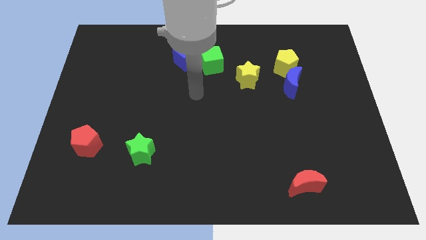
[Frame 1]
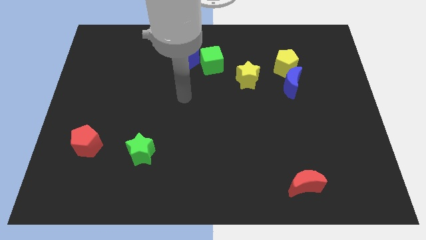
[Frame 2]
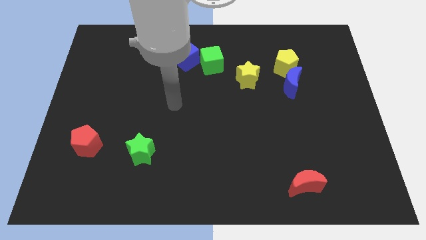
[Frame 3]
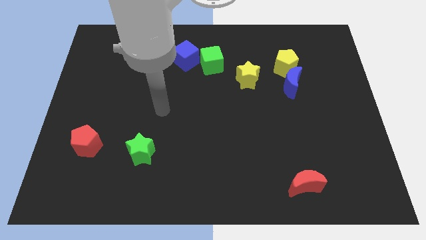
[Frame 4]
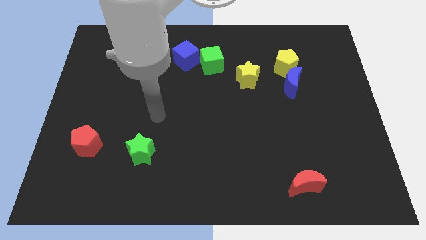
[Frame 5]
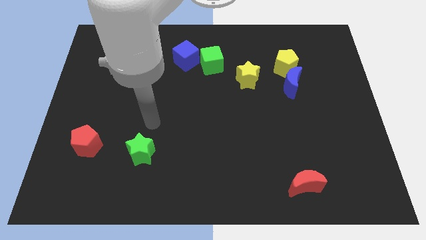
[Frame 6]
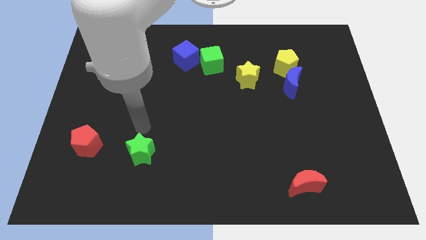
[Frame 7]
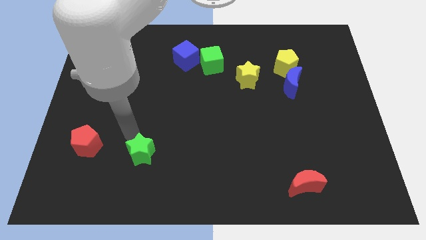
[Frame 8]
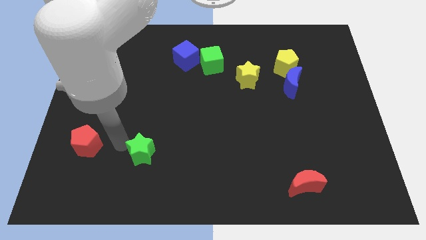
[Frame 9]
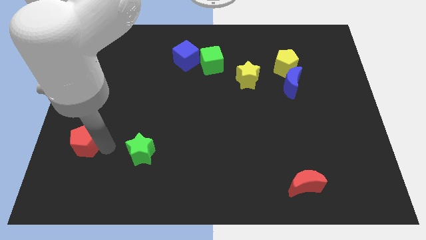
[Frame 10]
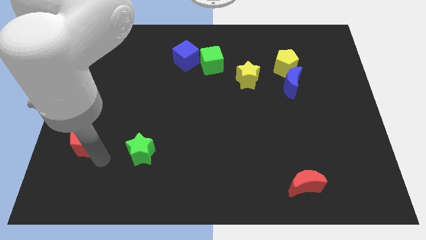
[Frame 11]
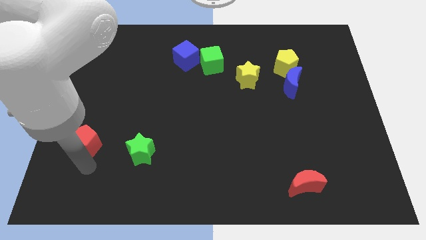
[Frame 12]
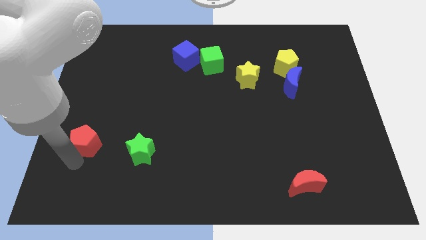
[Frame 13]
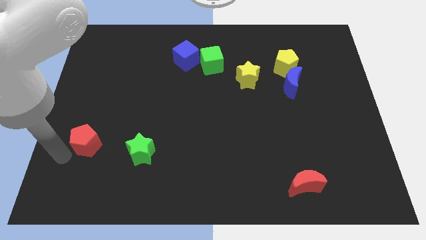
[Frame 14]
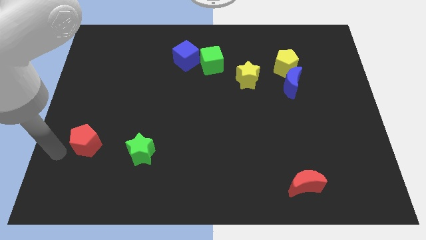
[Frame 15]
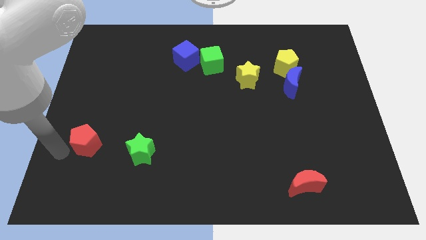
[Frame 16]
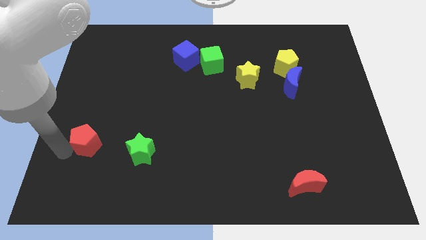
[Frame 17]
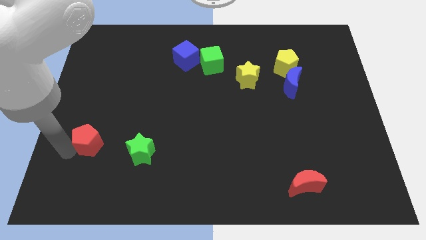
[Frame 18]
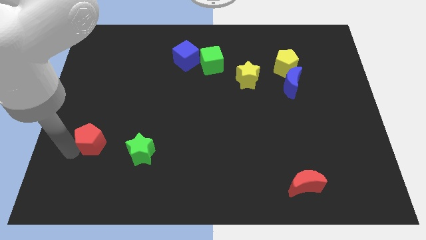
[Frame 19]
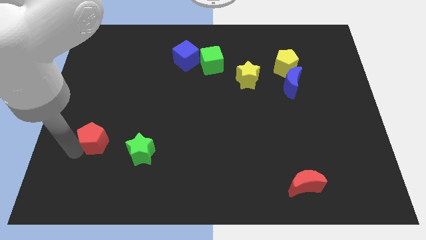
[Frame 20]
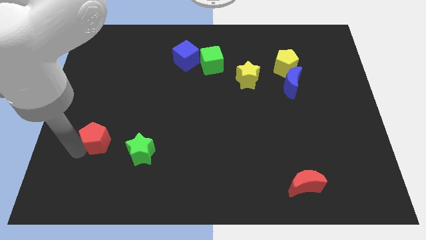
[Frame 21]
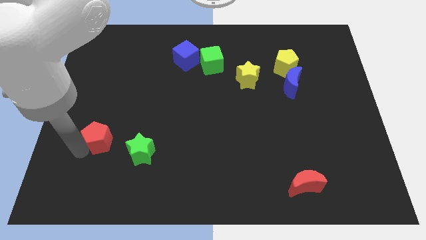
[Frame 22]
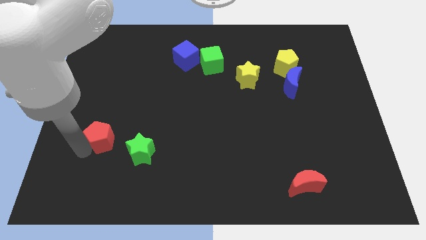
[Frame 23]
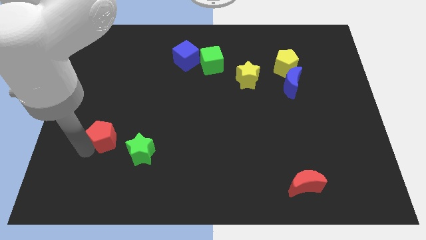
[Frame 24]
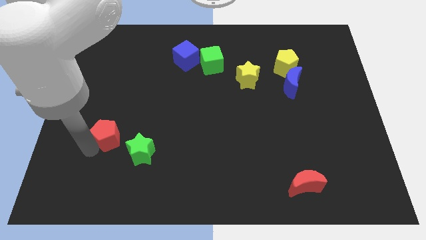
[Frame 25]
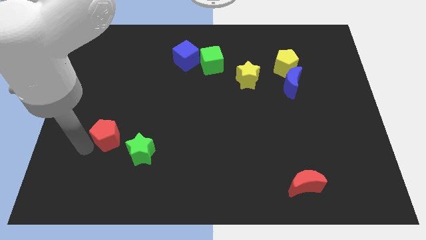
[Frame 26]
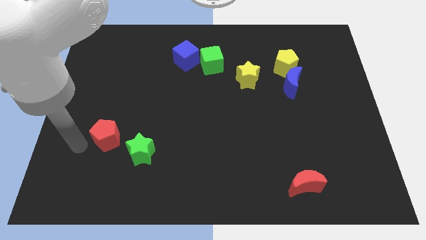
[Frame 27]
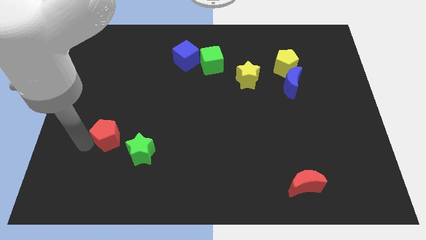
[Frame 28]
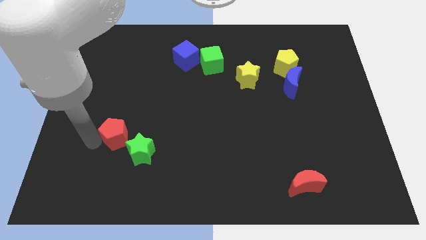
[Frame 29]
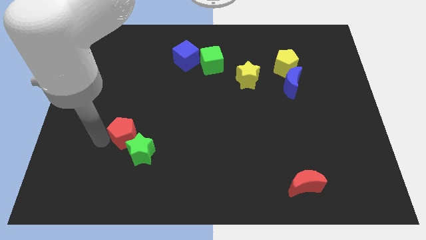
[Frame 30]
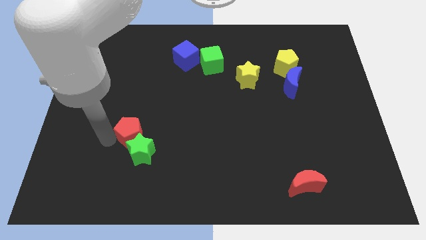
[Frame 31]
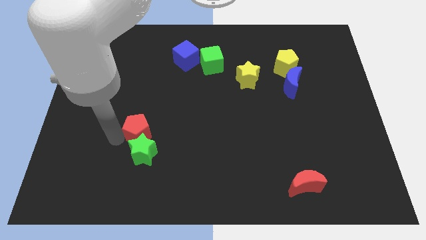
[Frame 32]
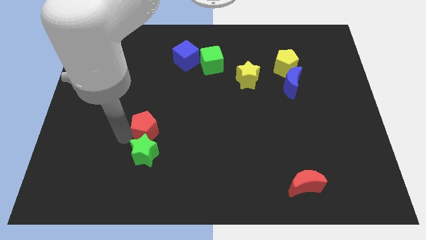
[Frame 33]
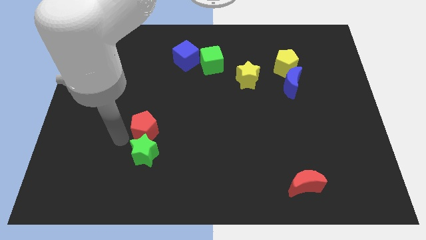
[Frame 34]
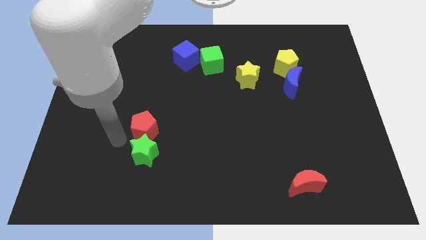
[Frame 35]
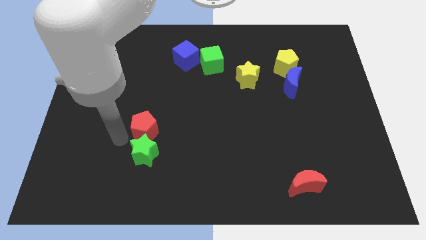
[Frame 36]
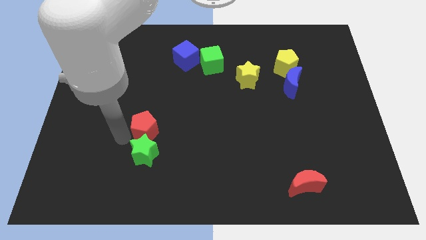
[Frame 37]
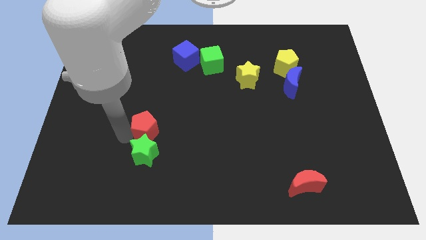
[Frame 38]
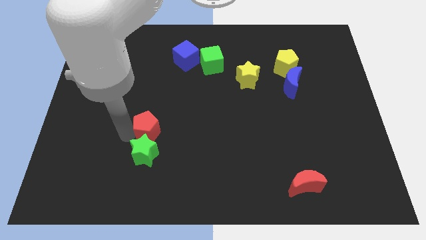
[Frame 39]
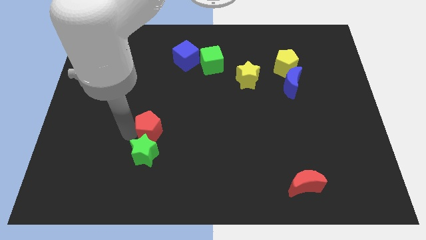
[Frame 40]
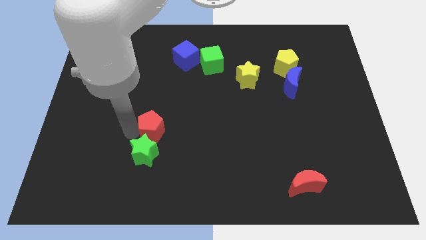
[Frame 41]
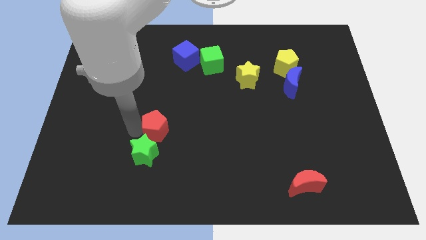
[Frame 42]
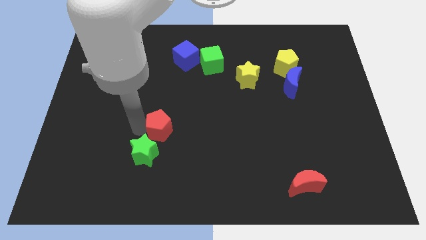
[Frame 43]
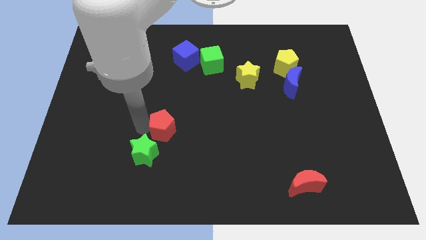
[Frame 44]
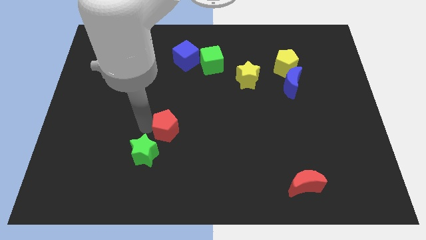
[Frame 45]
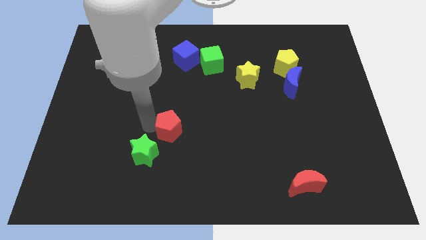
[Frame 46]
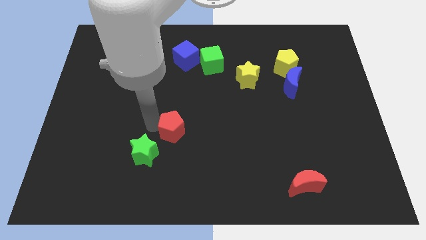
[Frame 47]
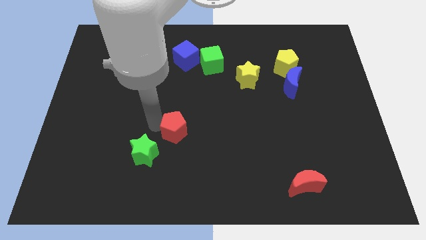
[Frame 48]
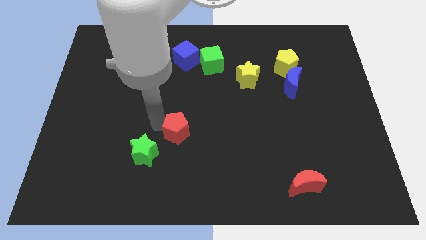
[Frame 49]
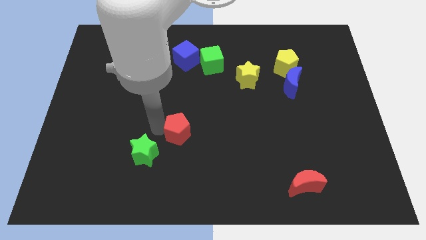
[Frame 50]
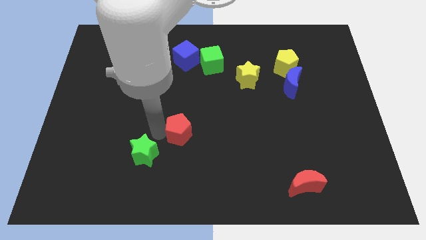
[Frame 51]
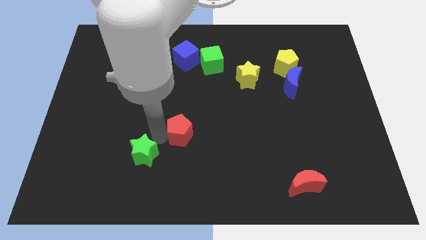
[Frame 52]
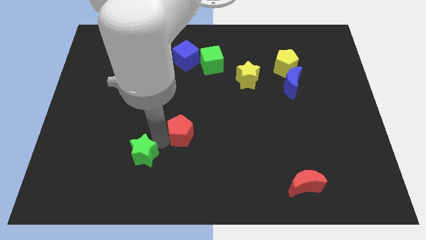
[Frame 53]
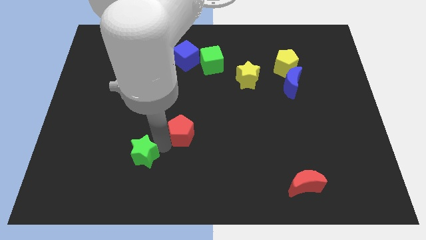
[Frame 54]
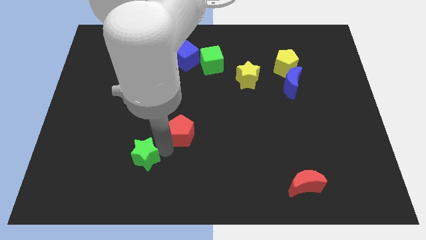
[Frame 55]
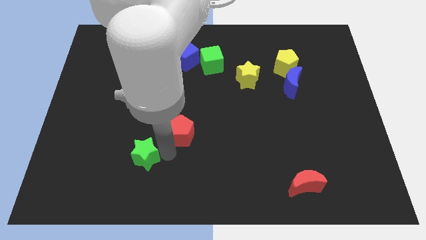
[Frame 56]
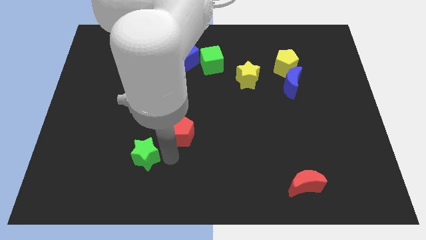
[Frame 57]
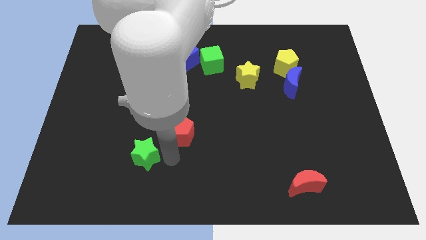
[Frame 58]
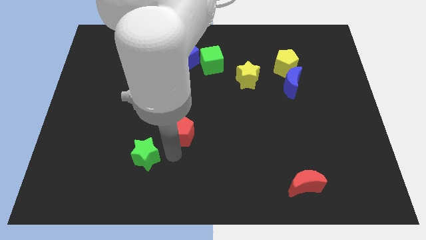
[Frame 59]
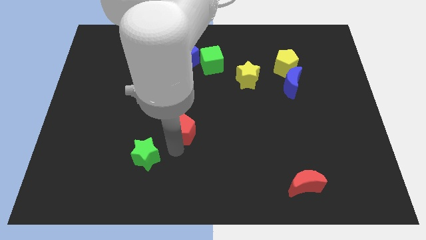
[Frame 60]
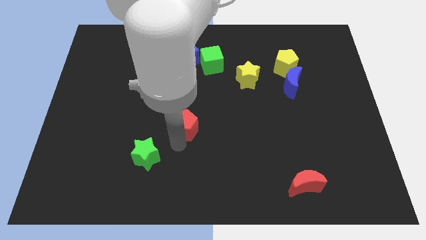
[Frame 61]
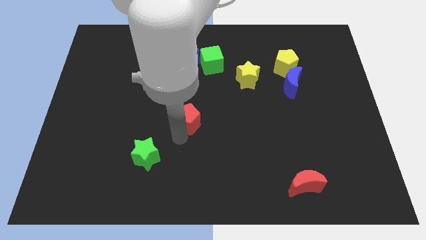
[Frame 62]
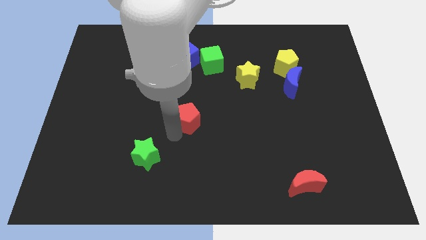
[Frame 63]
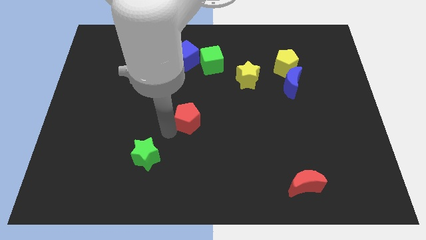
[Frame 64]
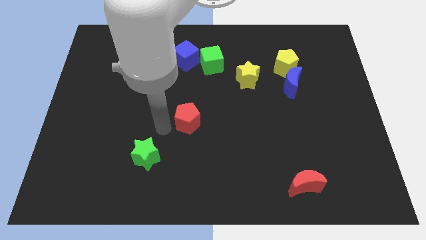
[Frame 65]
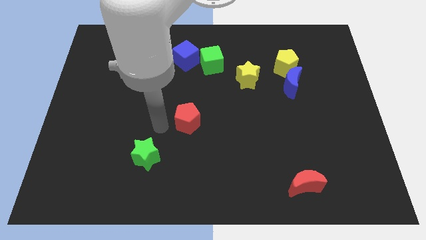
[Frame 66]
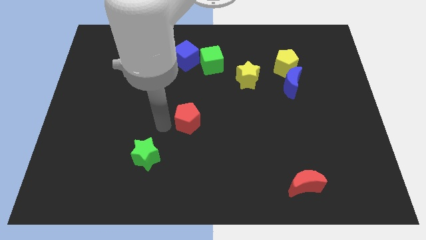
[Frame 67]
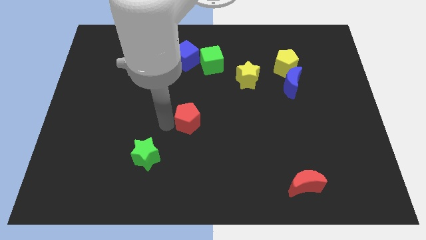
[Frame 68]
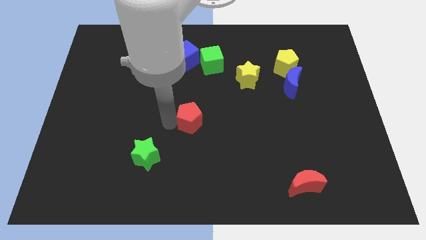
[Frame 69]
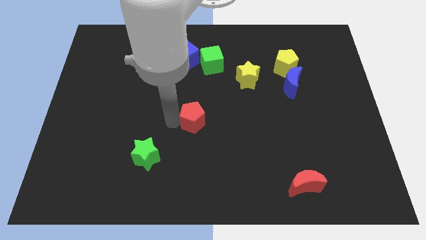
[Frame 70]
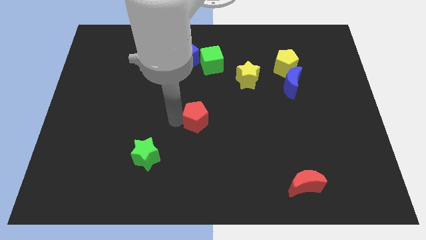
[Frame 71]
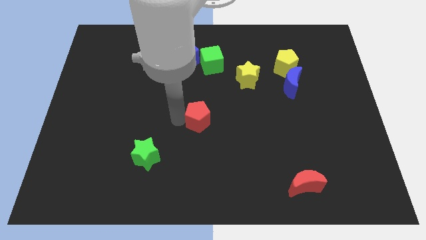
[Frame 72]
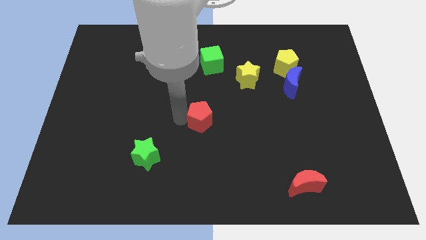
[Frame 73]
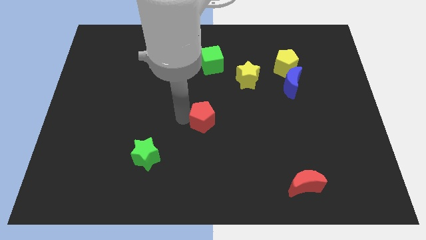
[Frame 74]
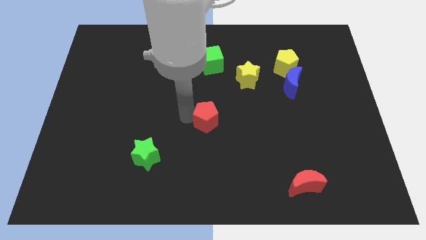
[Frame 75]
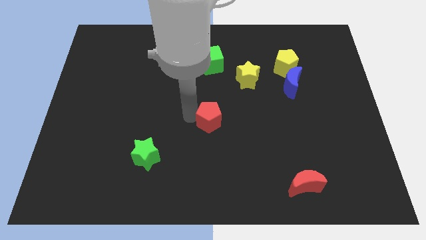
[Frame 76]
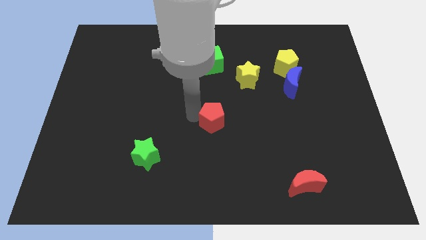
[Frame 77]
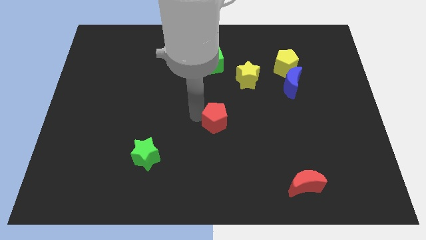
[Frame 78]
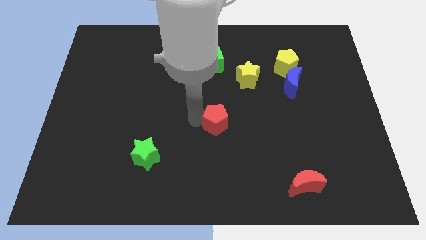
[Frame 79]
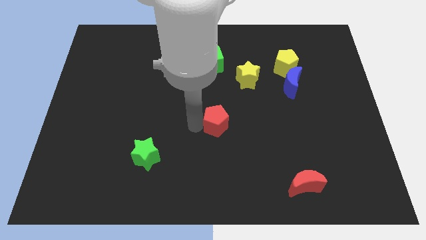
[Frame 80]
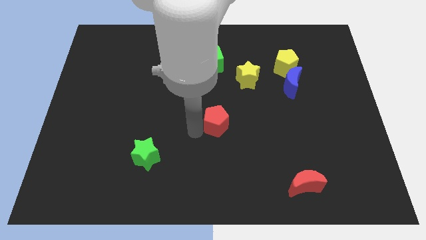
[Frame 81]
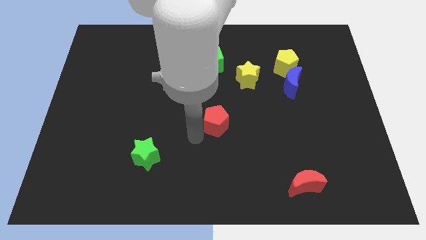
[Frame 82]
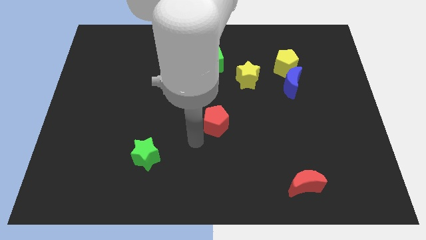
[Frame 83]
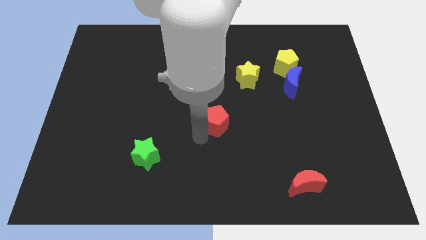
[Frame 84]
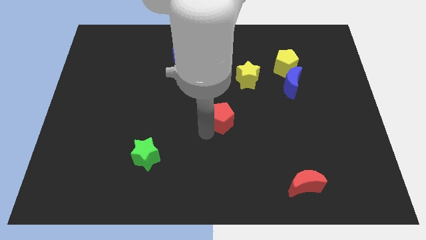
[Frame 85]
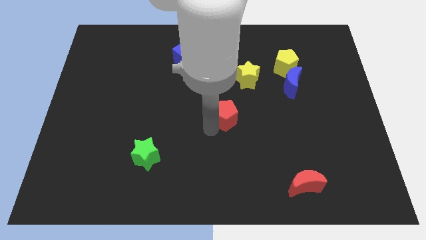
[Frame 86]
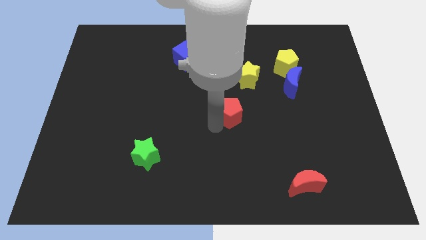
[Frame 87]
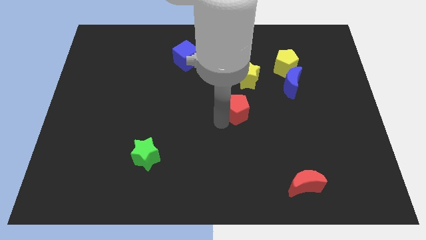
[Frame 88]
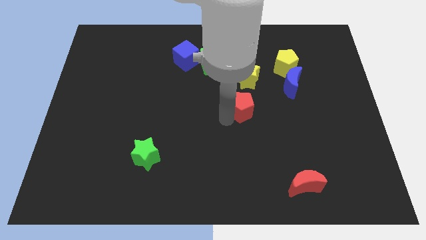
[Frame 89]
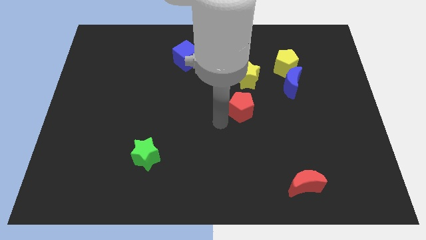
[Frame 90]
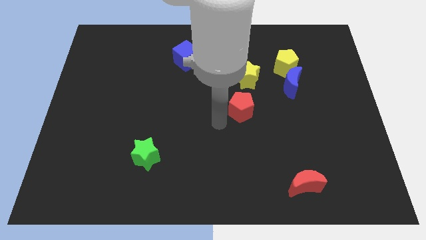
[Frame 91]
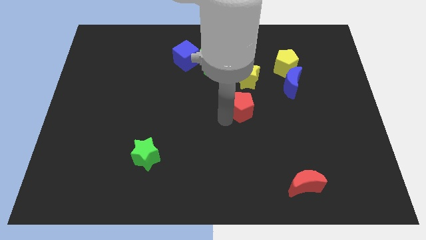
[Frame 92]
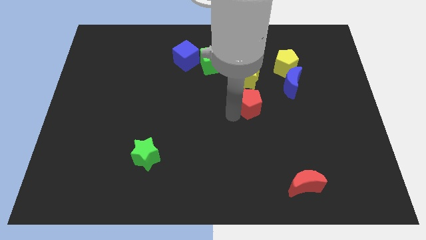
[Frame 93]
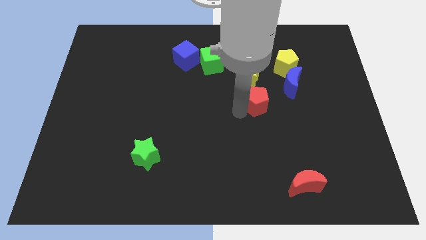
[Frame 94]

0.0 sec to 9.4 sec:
push the red pentagon diagonally down and to the right of the yellow star
